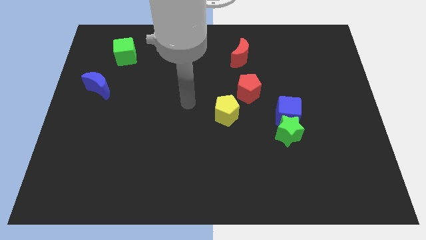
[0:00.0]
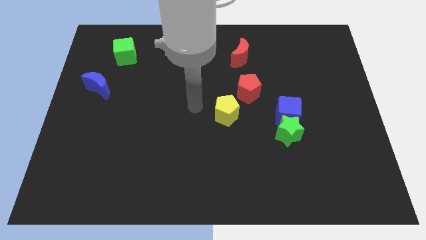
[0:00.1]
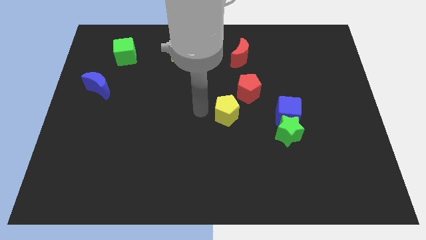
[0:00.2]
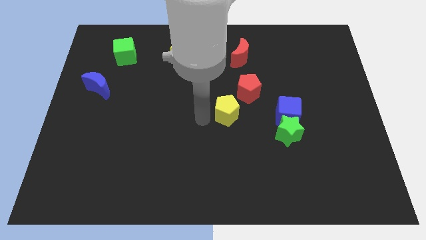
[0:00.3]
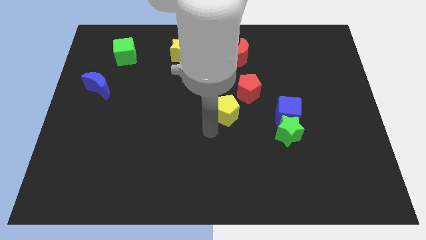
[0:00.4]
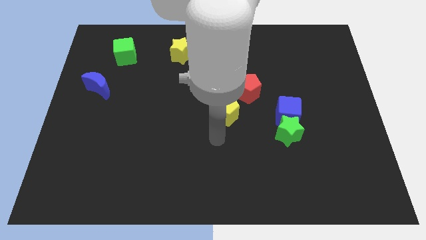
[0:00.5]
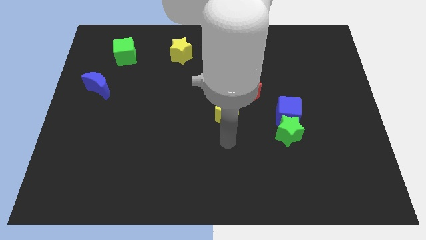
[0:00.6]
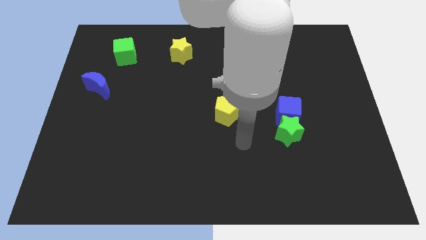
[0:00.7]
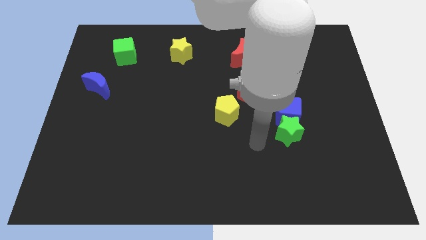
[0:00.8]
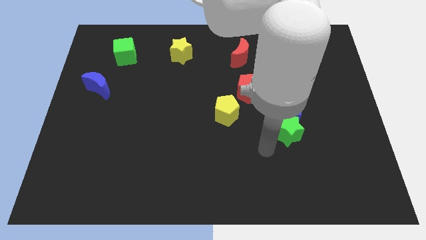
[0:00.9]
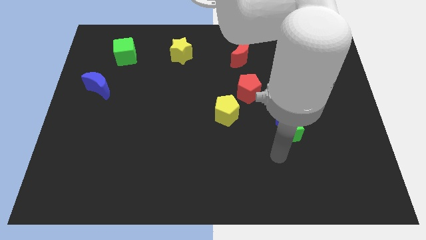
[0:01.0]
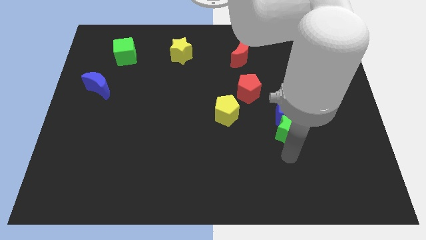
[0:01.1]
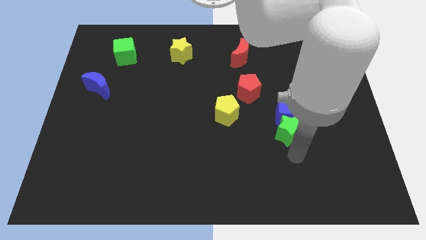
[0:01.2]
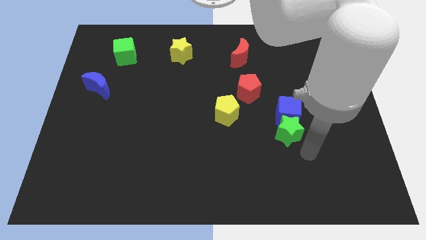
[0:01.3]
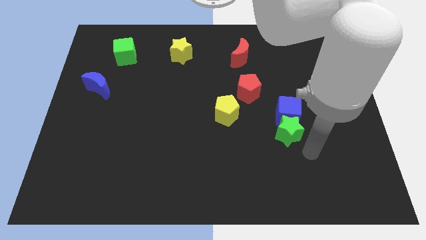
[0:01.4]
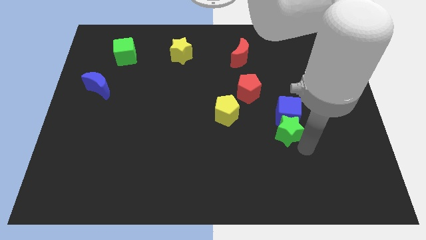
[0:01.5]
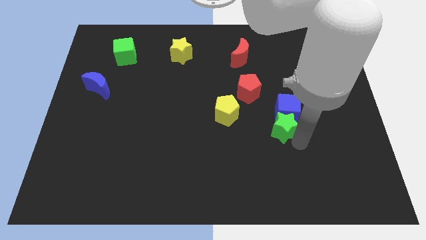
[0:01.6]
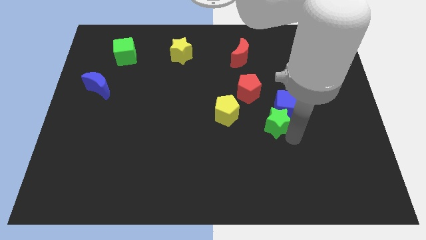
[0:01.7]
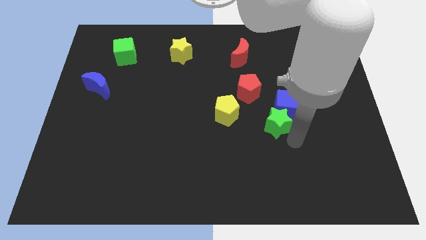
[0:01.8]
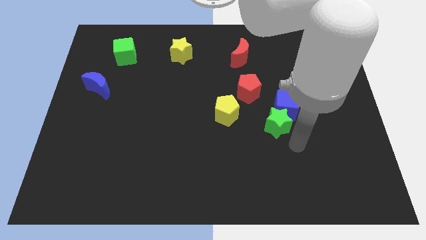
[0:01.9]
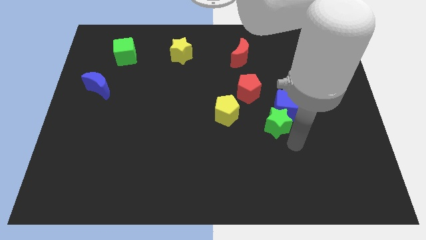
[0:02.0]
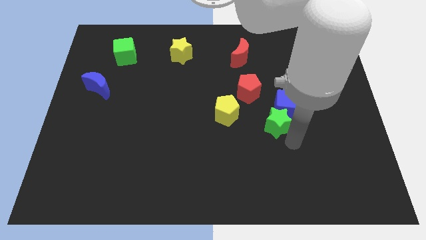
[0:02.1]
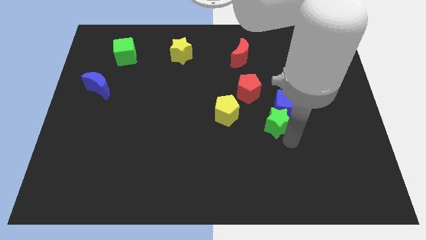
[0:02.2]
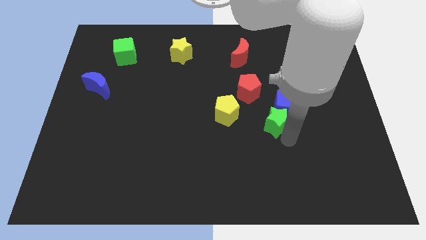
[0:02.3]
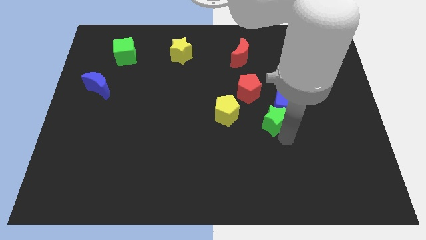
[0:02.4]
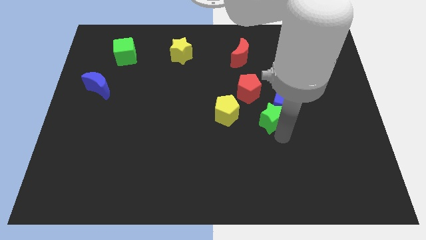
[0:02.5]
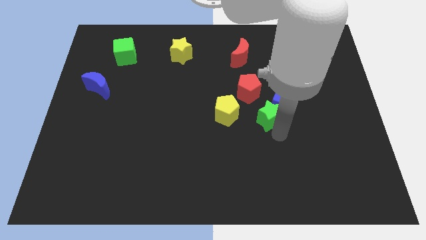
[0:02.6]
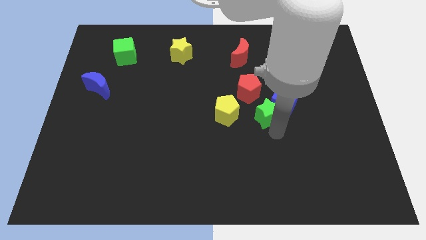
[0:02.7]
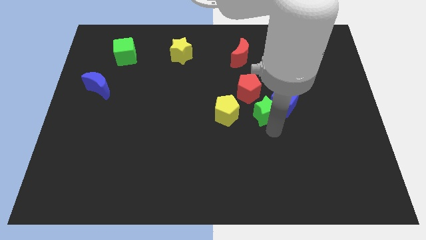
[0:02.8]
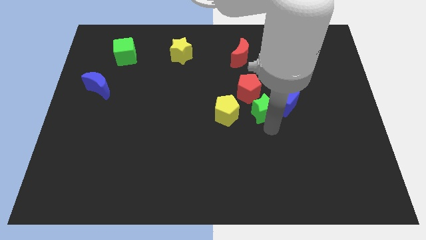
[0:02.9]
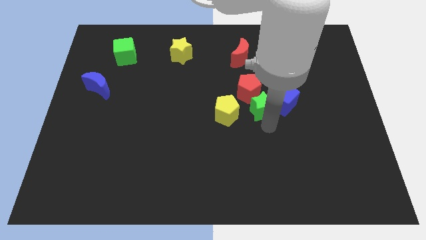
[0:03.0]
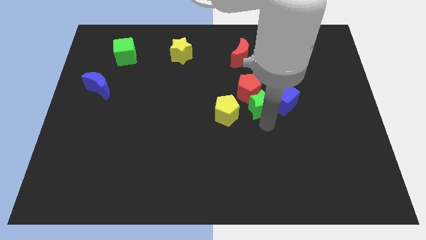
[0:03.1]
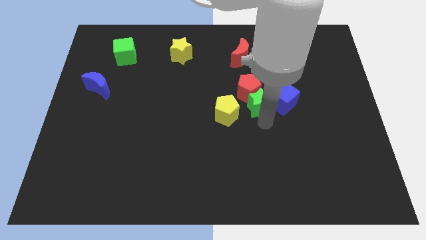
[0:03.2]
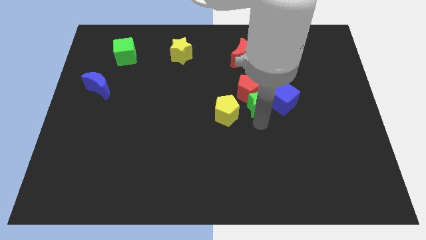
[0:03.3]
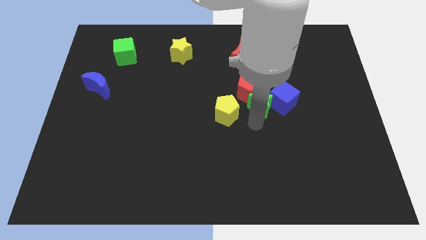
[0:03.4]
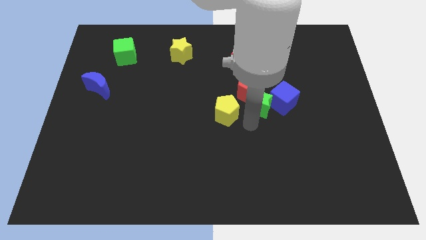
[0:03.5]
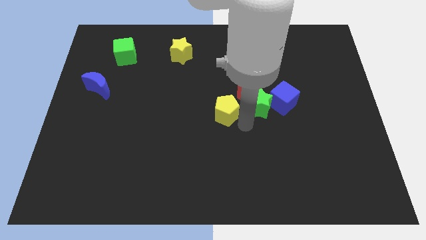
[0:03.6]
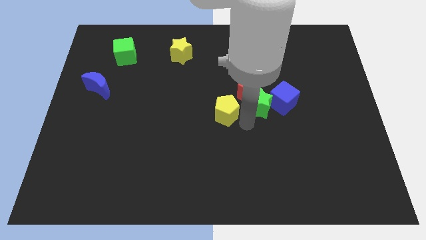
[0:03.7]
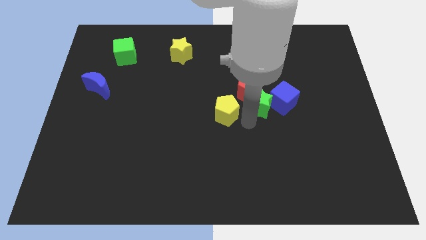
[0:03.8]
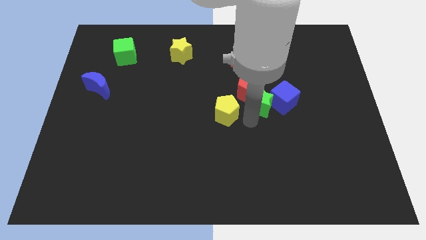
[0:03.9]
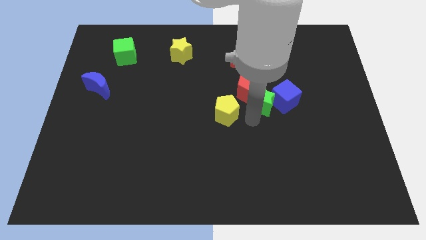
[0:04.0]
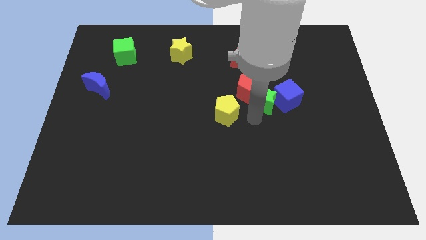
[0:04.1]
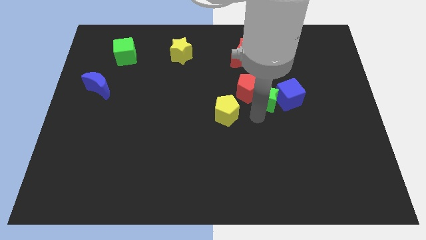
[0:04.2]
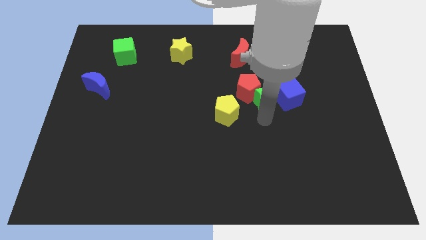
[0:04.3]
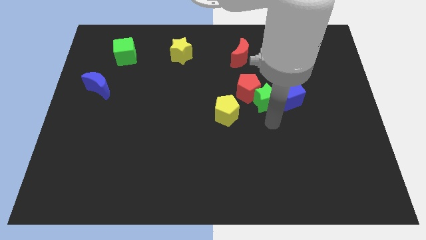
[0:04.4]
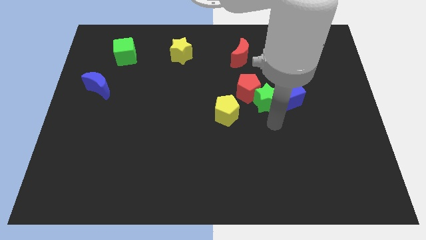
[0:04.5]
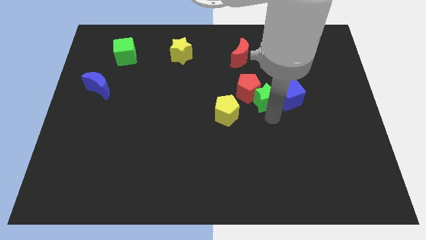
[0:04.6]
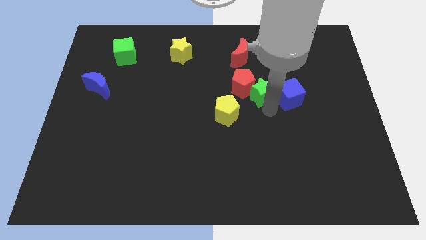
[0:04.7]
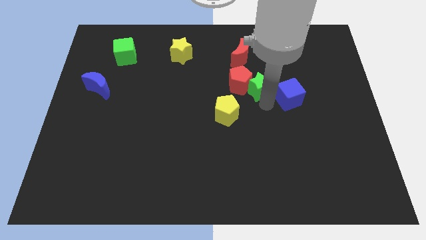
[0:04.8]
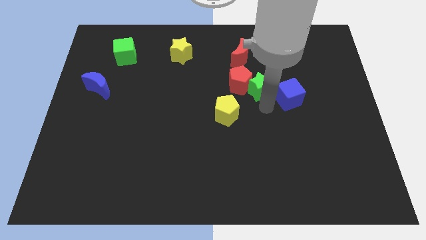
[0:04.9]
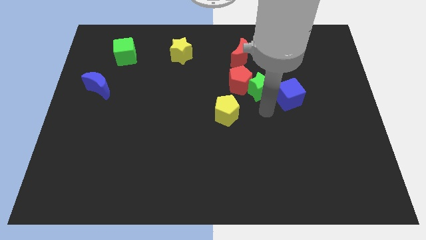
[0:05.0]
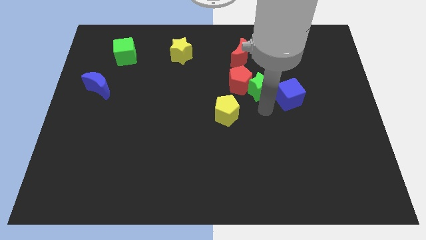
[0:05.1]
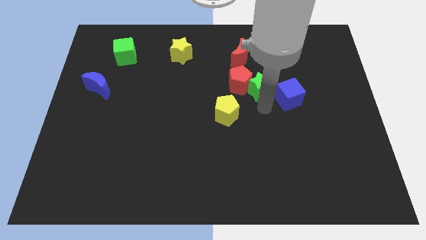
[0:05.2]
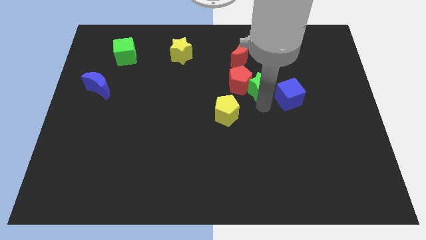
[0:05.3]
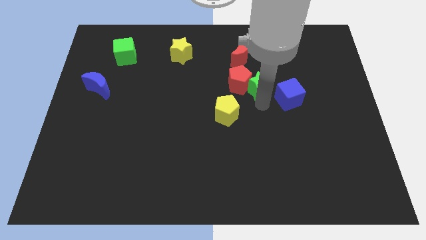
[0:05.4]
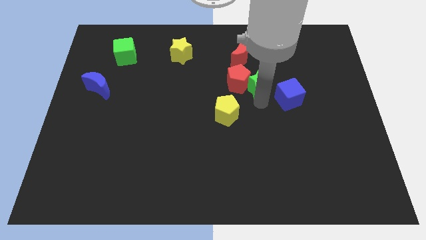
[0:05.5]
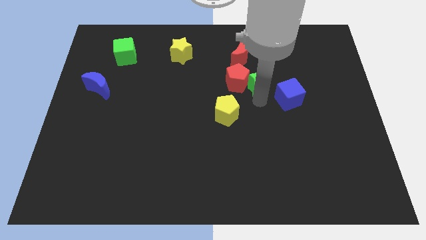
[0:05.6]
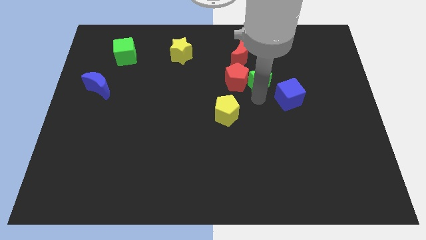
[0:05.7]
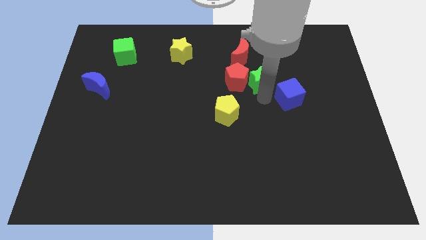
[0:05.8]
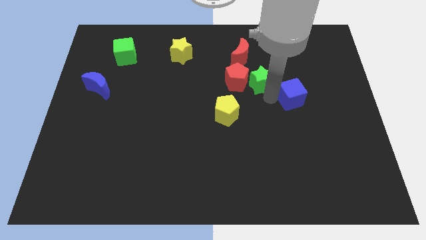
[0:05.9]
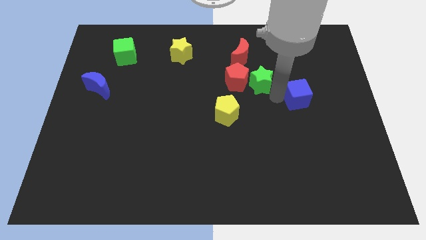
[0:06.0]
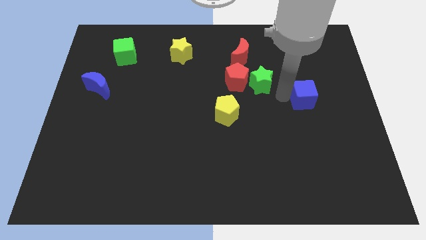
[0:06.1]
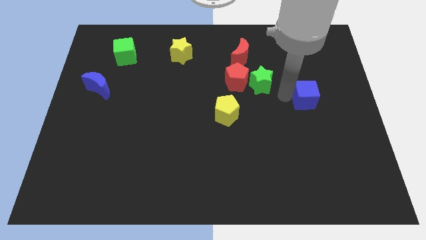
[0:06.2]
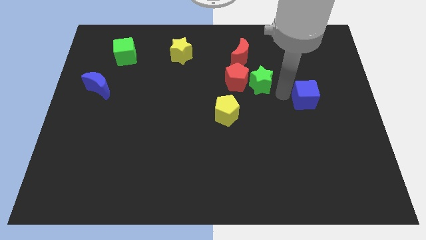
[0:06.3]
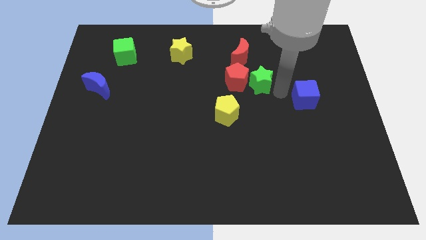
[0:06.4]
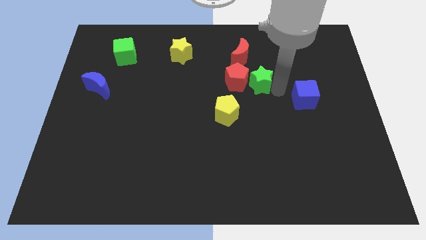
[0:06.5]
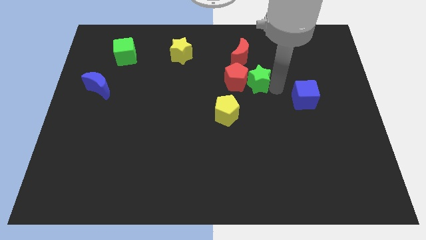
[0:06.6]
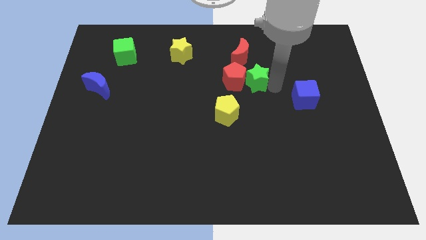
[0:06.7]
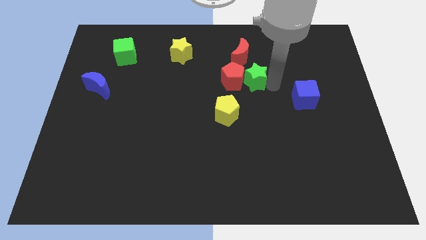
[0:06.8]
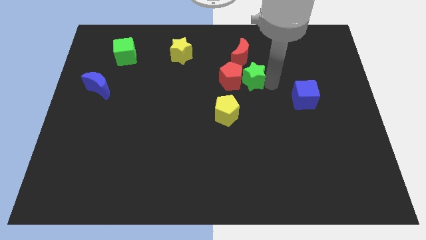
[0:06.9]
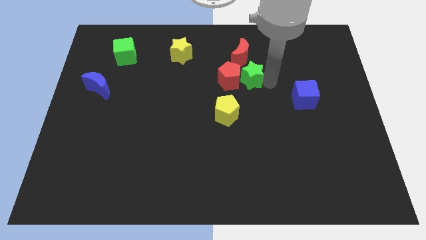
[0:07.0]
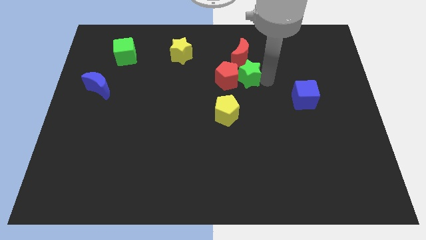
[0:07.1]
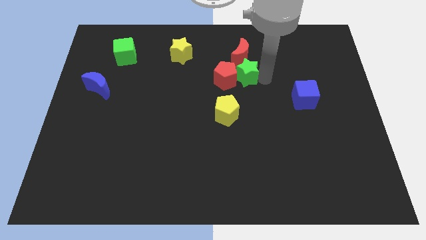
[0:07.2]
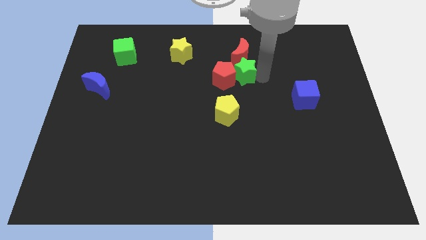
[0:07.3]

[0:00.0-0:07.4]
slide the green star diagonally down and to the left of the red moon

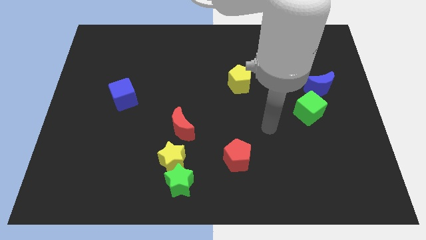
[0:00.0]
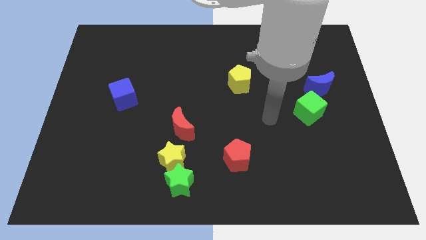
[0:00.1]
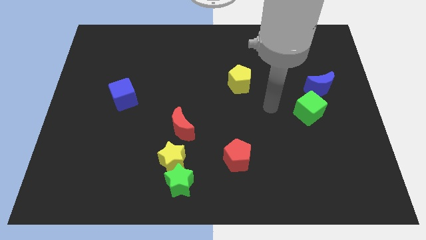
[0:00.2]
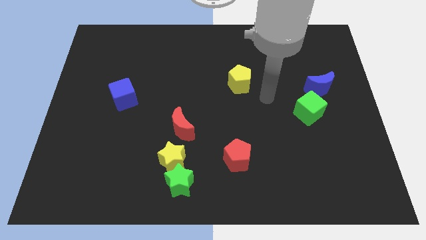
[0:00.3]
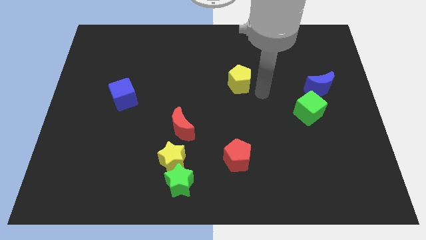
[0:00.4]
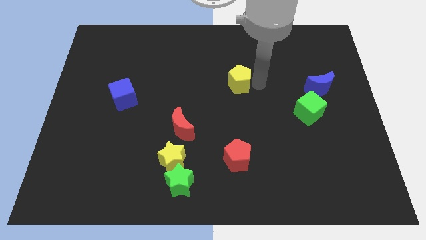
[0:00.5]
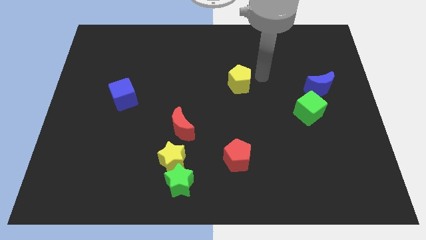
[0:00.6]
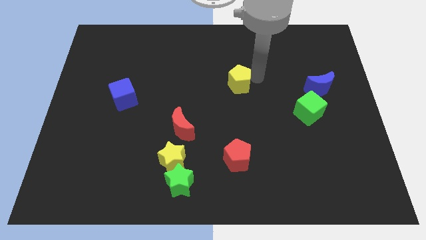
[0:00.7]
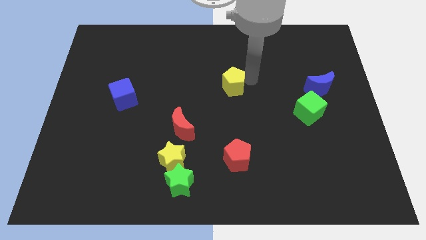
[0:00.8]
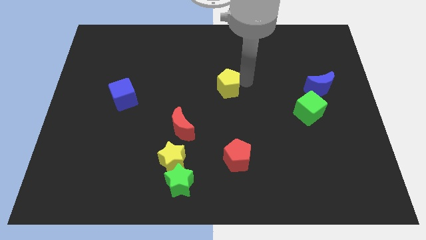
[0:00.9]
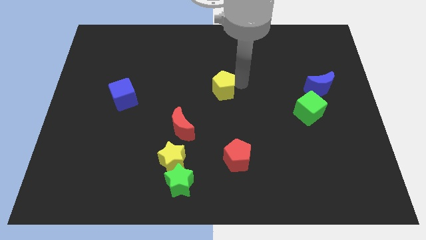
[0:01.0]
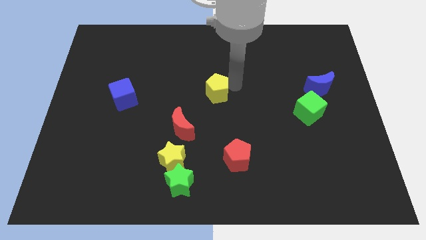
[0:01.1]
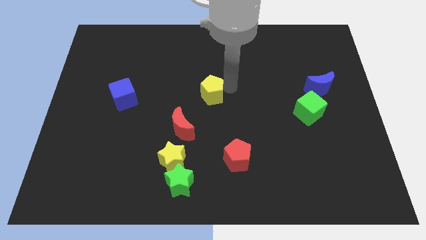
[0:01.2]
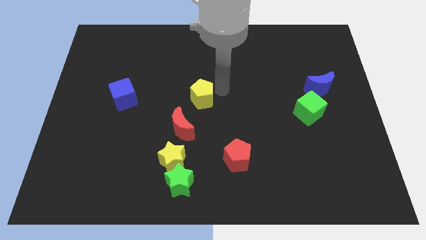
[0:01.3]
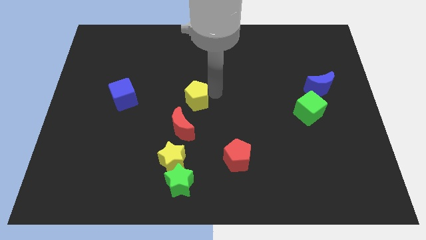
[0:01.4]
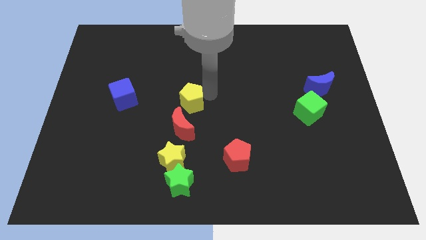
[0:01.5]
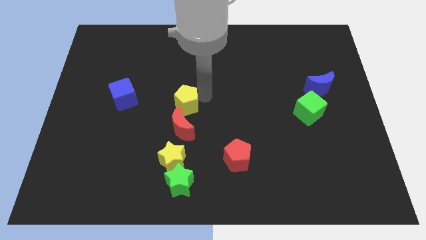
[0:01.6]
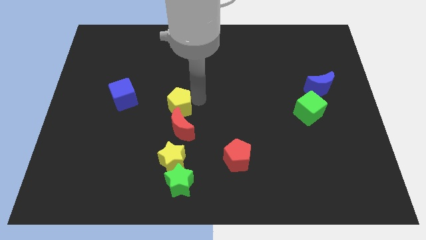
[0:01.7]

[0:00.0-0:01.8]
put the yellow pentagon to the top left side of the red moon
